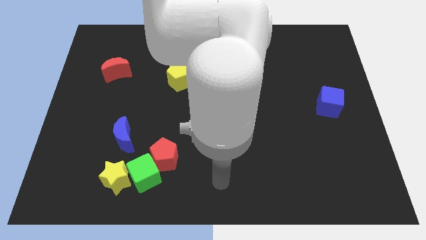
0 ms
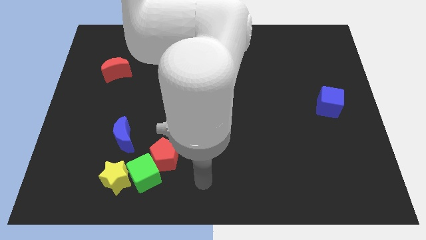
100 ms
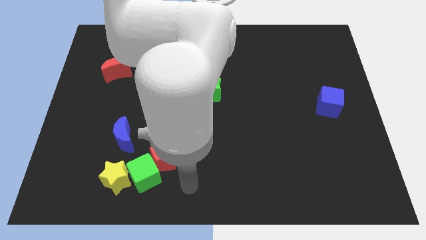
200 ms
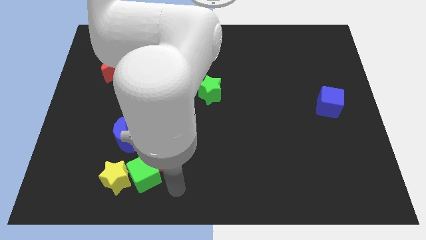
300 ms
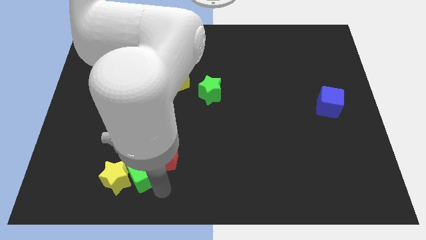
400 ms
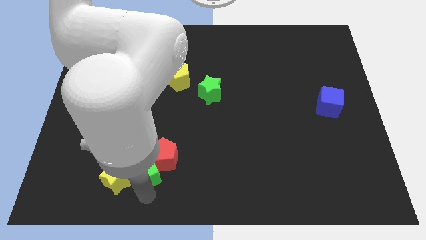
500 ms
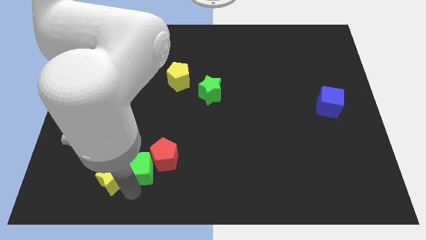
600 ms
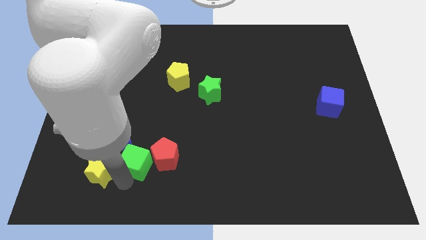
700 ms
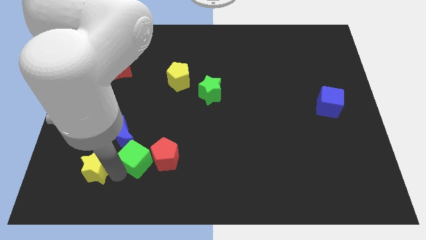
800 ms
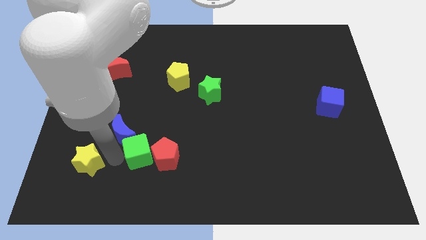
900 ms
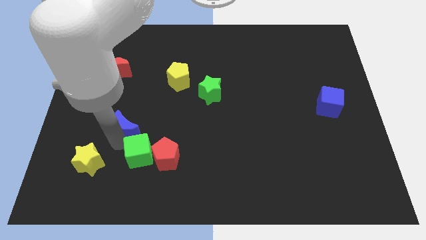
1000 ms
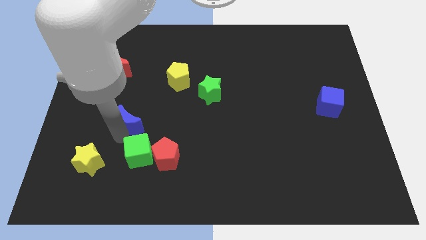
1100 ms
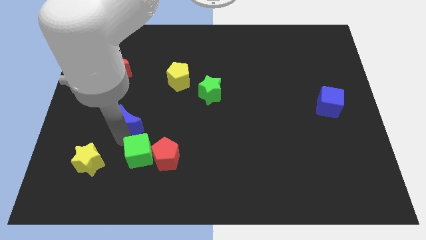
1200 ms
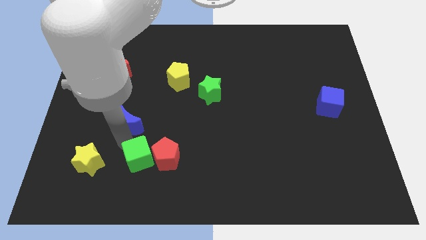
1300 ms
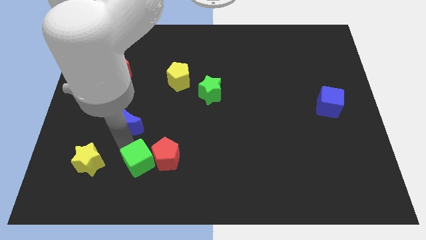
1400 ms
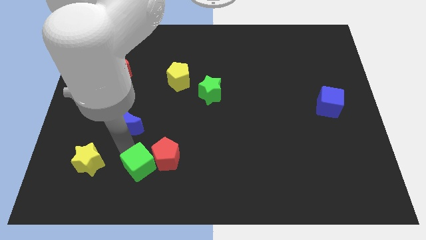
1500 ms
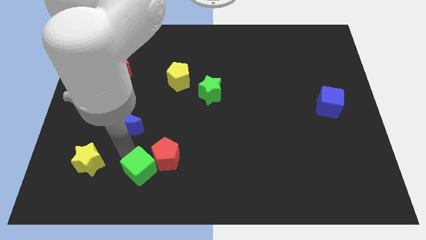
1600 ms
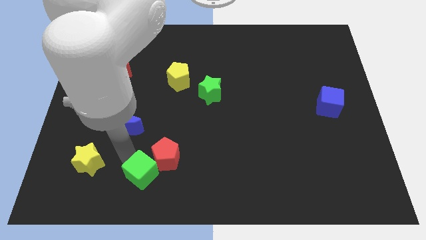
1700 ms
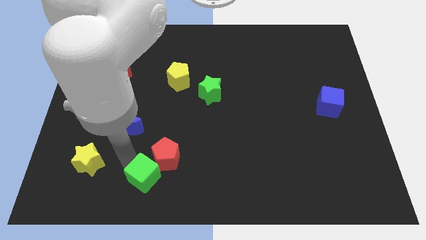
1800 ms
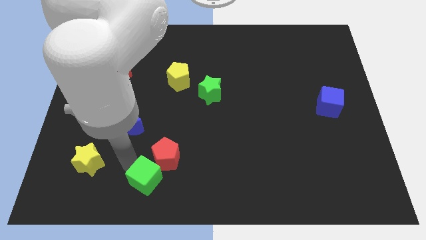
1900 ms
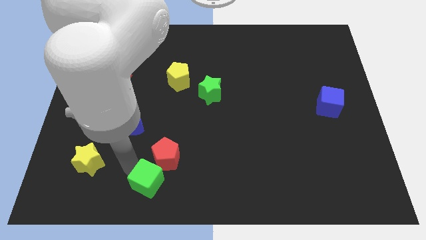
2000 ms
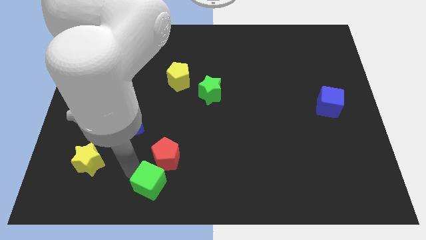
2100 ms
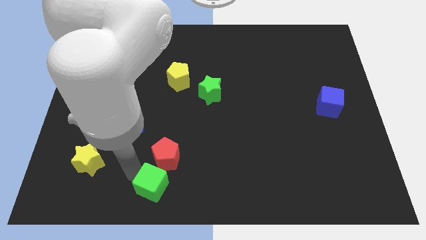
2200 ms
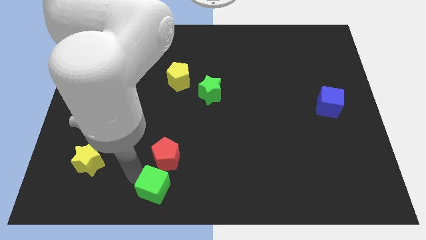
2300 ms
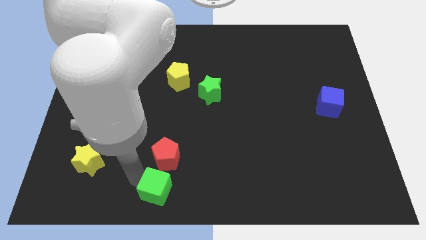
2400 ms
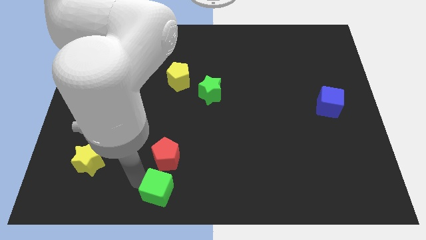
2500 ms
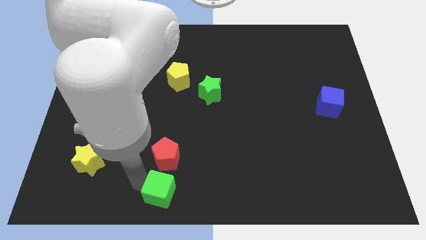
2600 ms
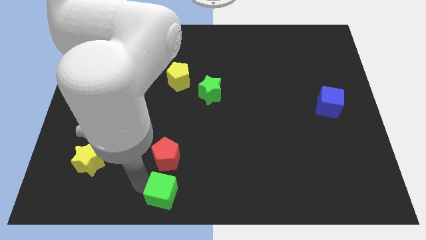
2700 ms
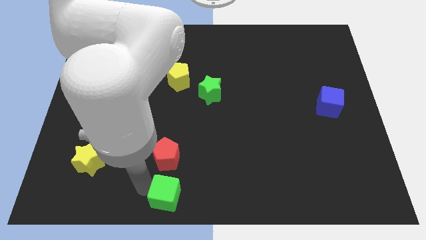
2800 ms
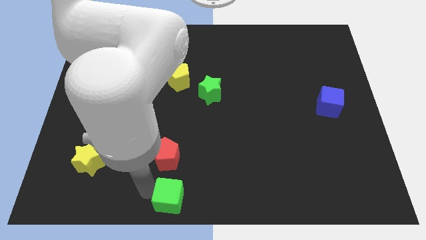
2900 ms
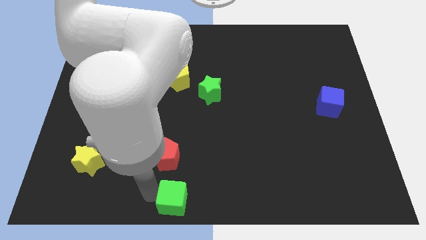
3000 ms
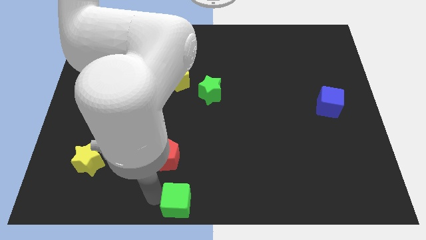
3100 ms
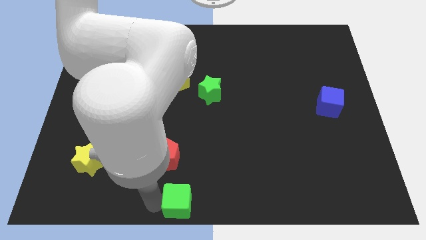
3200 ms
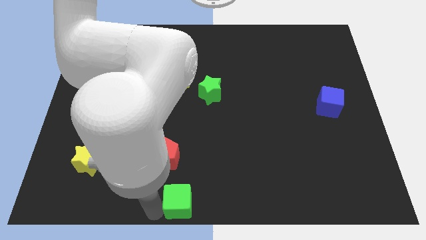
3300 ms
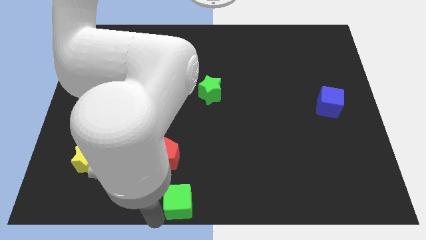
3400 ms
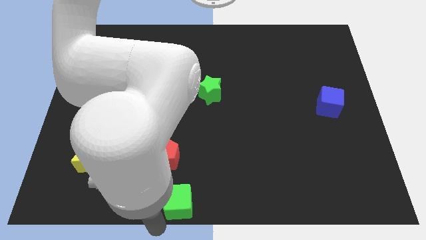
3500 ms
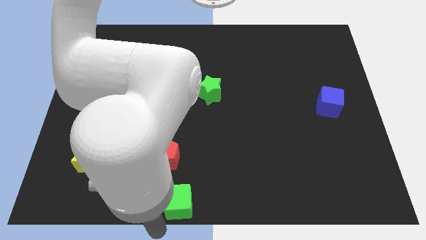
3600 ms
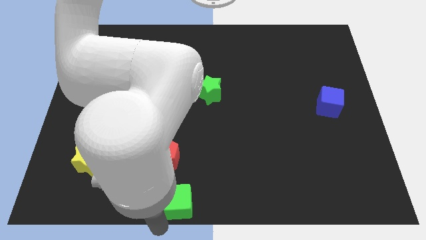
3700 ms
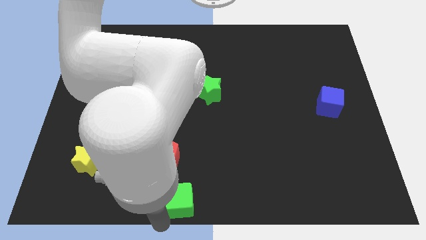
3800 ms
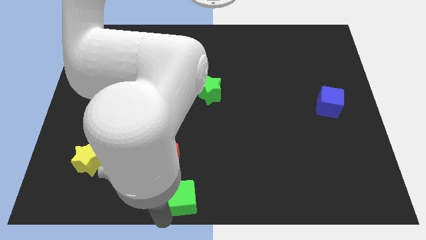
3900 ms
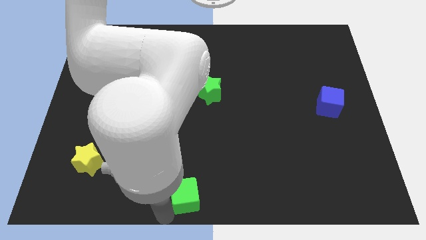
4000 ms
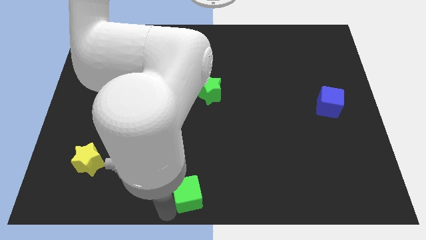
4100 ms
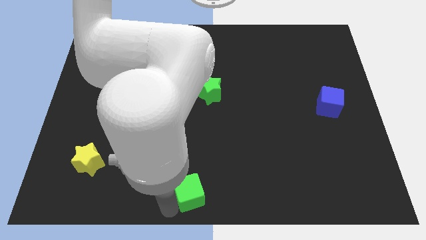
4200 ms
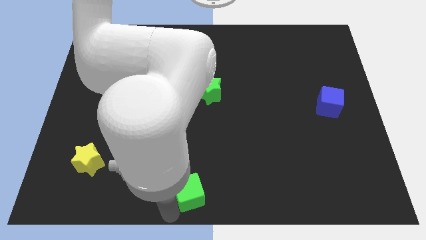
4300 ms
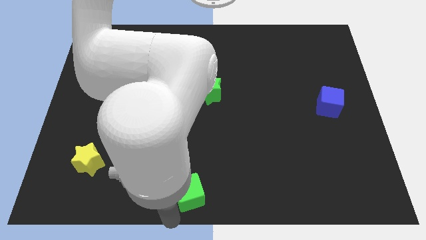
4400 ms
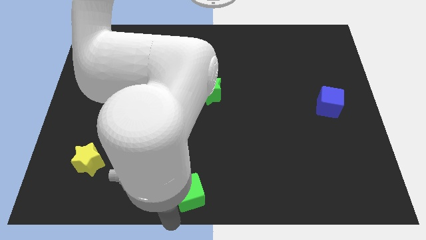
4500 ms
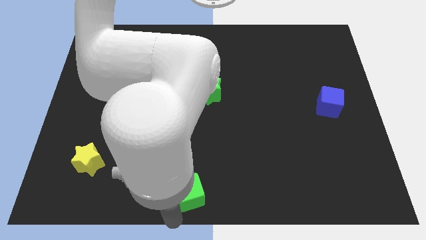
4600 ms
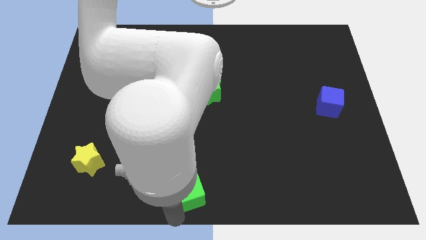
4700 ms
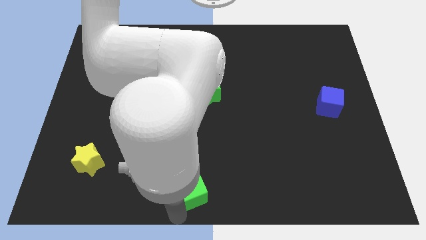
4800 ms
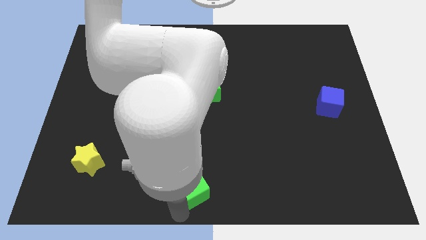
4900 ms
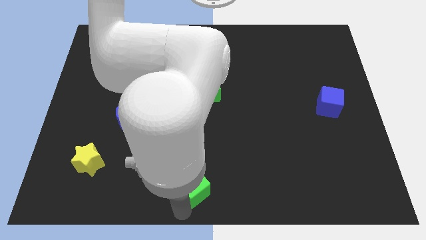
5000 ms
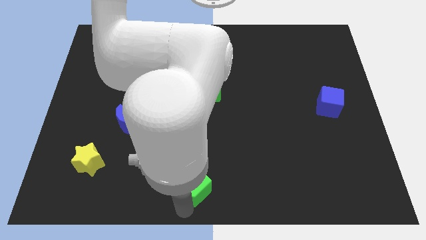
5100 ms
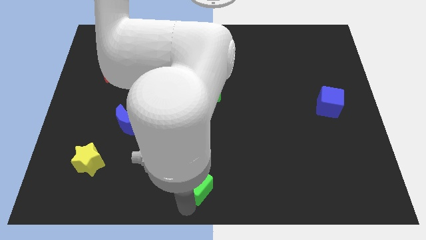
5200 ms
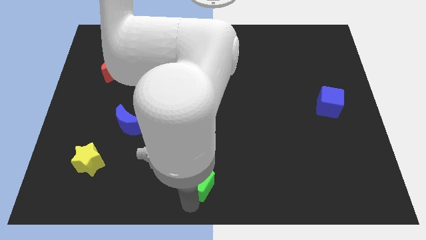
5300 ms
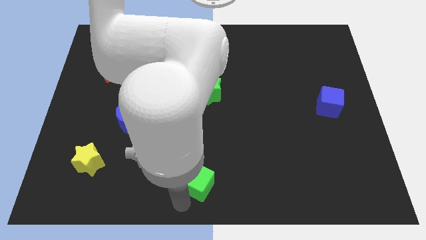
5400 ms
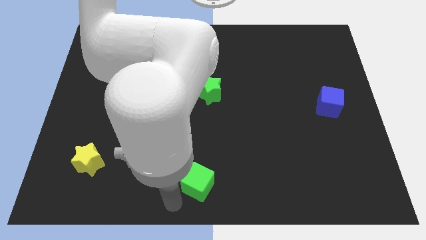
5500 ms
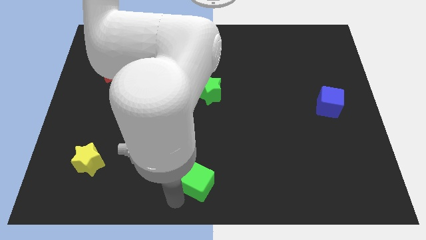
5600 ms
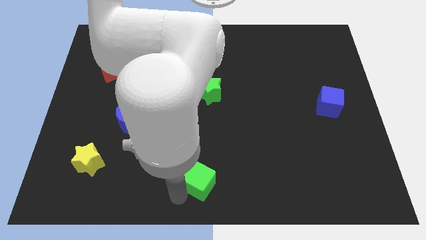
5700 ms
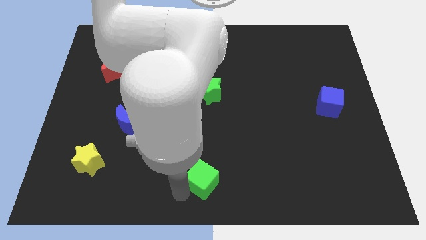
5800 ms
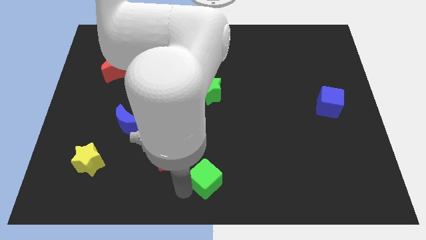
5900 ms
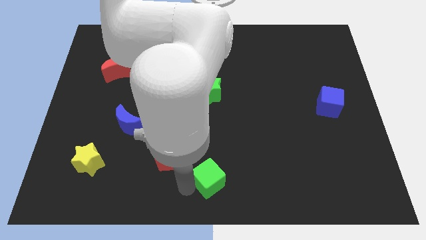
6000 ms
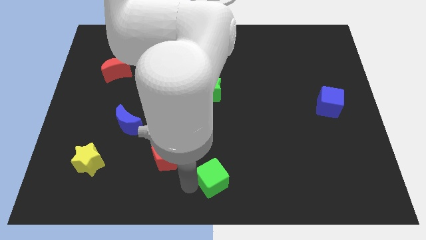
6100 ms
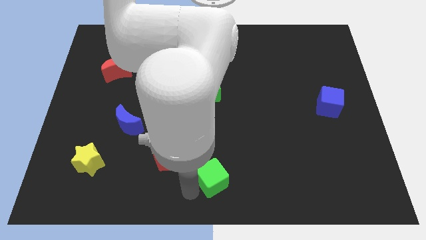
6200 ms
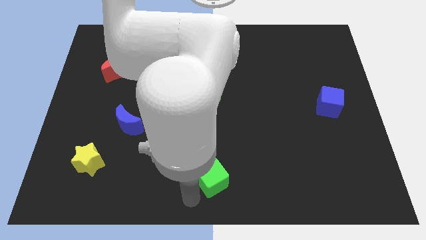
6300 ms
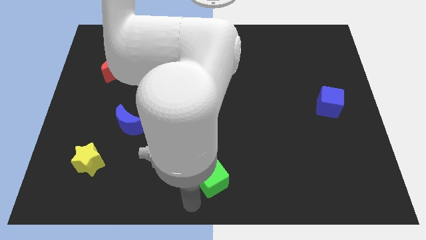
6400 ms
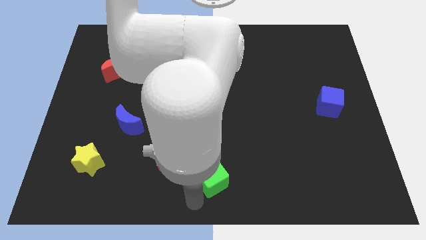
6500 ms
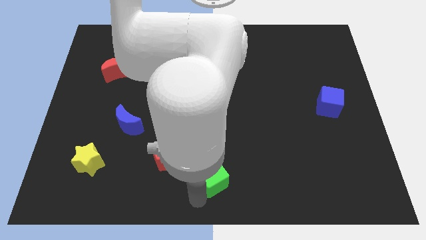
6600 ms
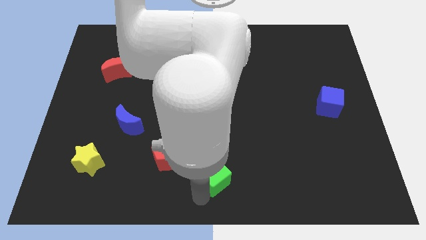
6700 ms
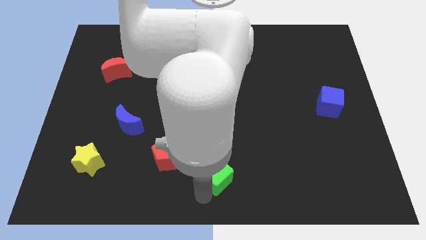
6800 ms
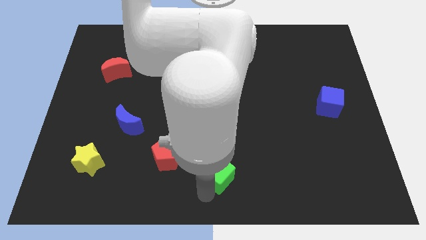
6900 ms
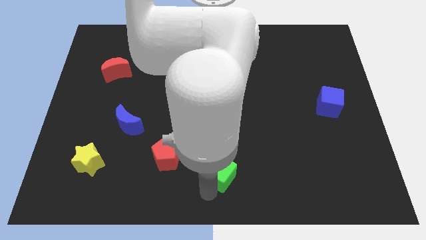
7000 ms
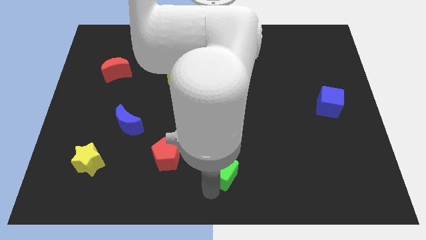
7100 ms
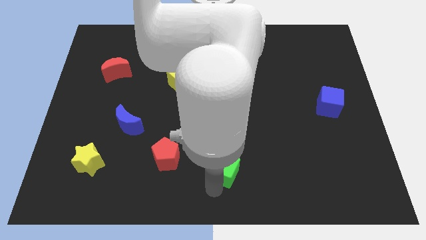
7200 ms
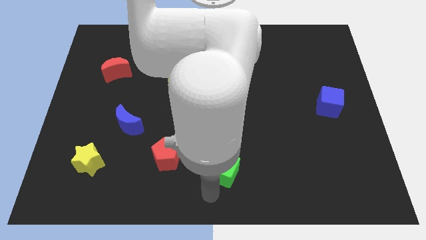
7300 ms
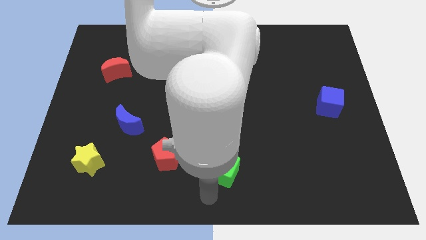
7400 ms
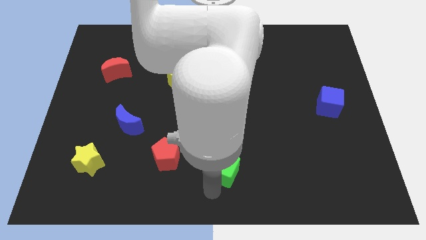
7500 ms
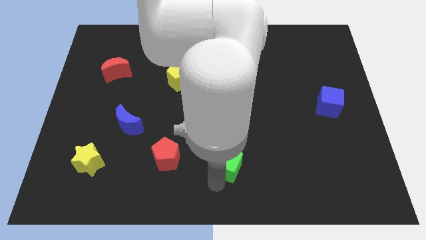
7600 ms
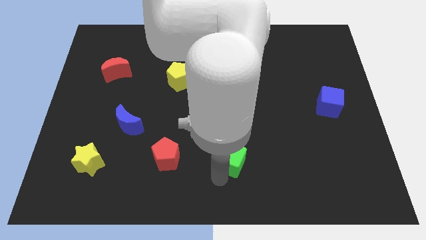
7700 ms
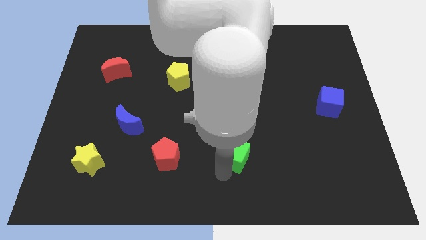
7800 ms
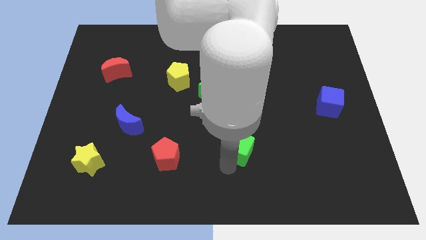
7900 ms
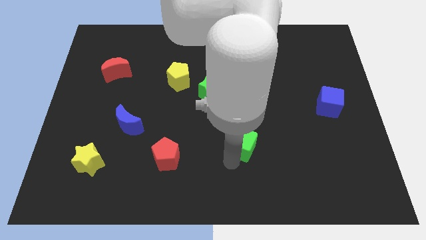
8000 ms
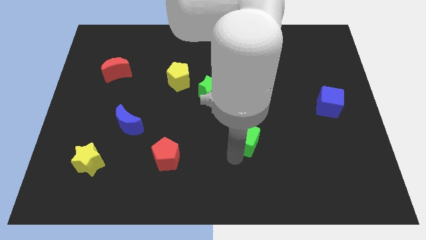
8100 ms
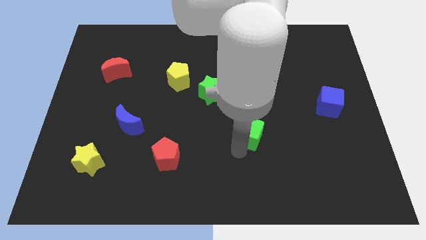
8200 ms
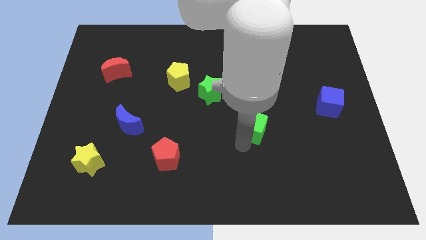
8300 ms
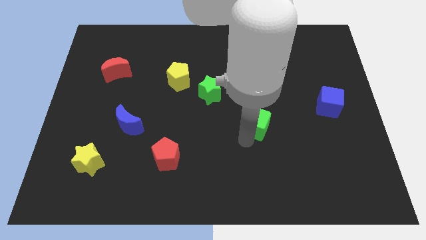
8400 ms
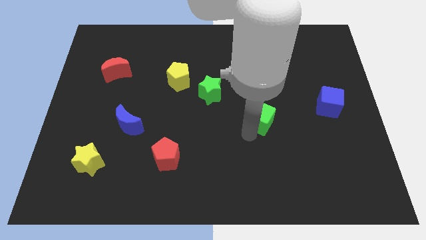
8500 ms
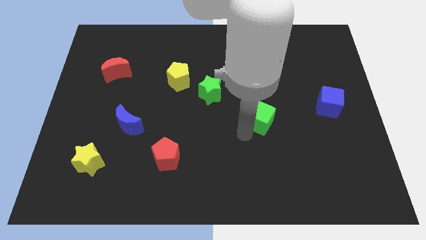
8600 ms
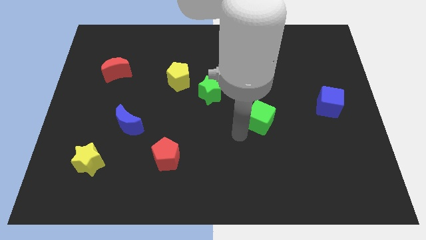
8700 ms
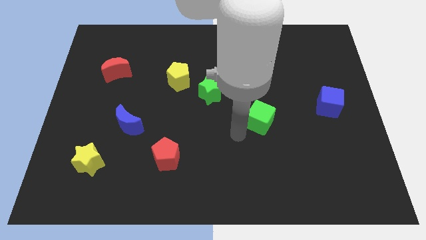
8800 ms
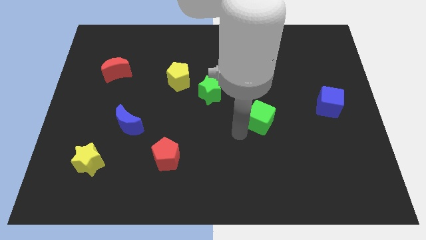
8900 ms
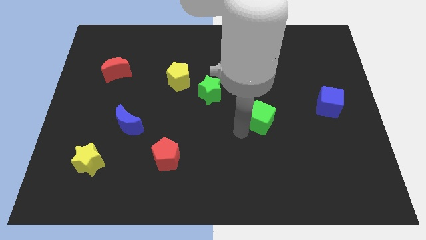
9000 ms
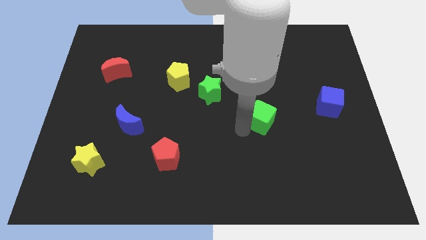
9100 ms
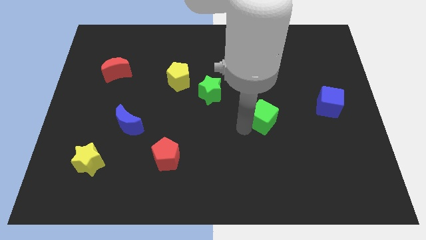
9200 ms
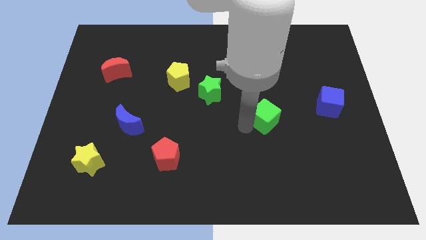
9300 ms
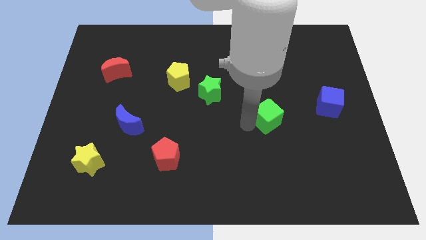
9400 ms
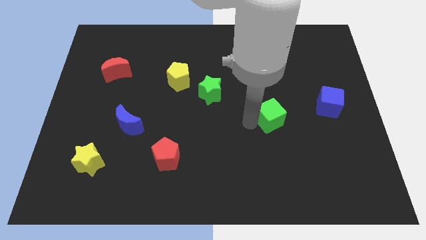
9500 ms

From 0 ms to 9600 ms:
push the green cube to the left side of the blue cube
